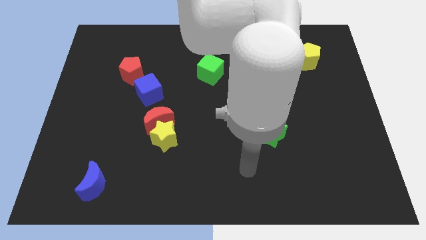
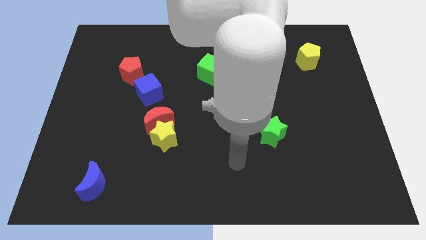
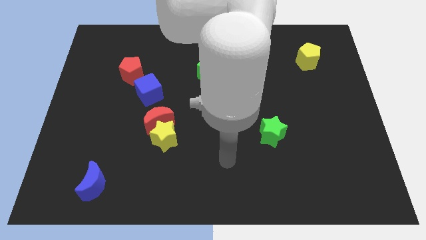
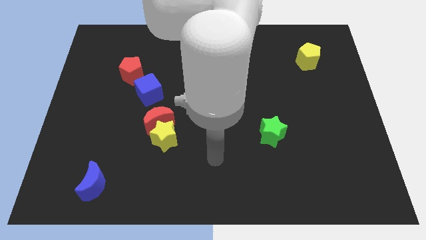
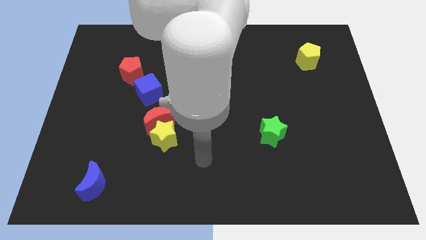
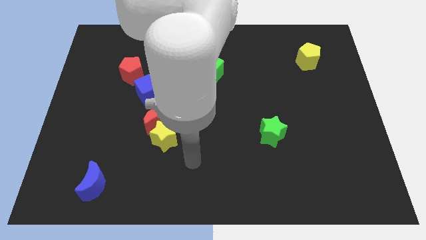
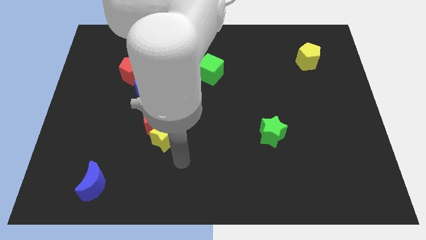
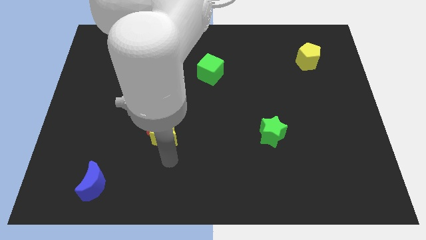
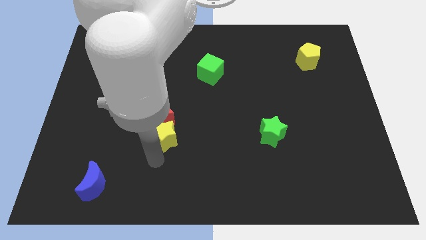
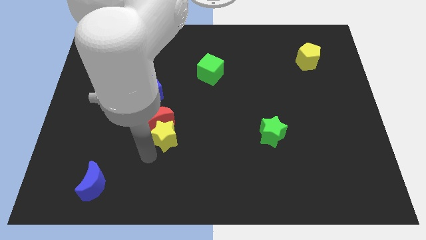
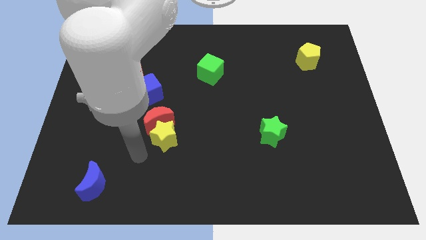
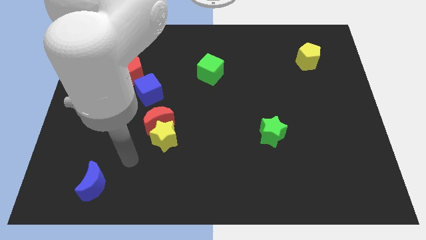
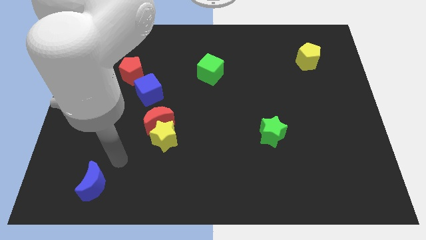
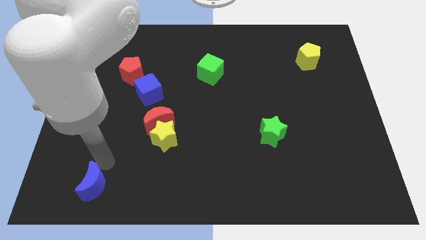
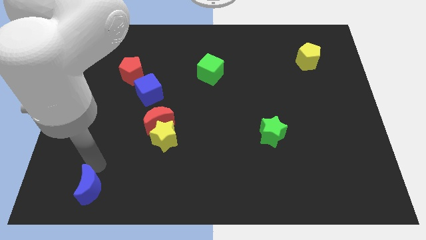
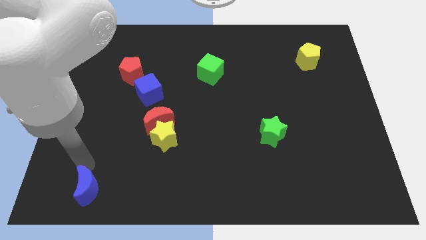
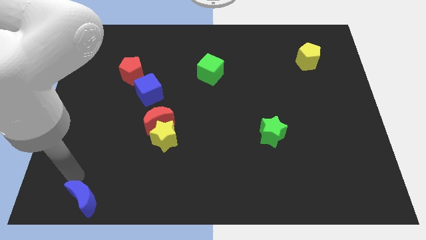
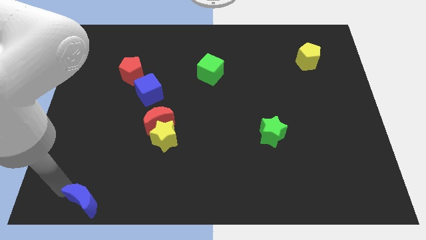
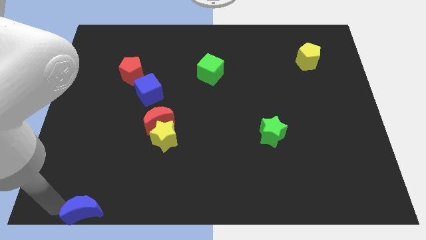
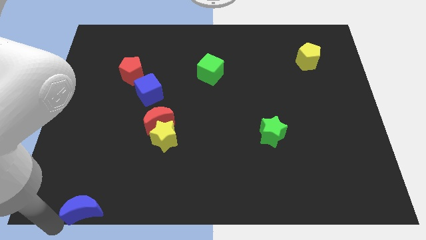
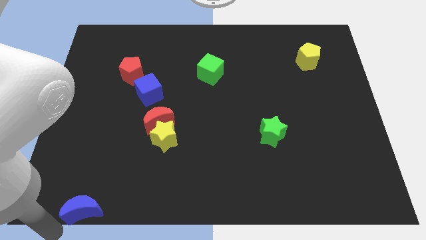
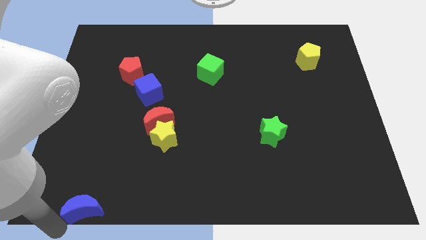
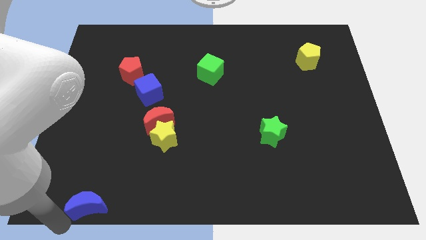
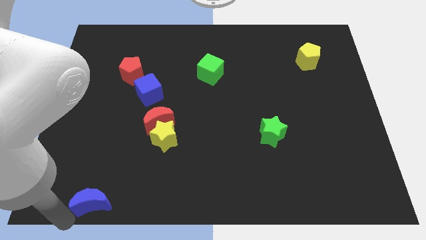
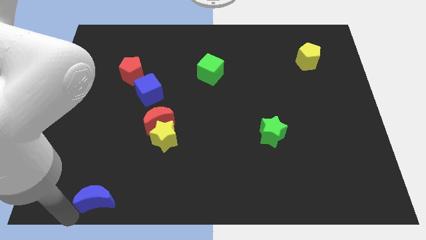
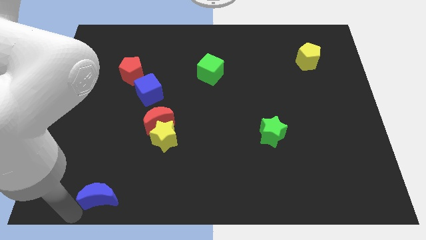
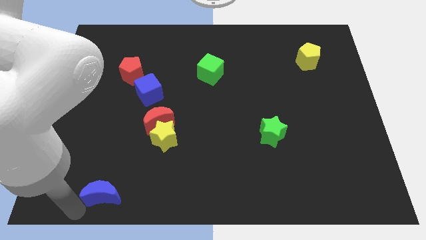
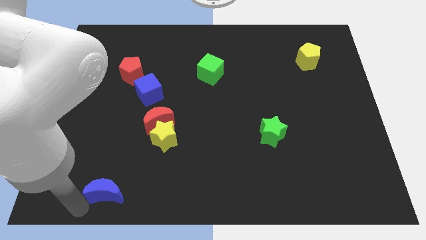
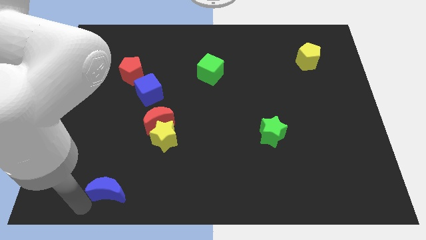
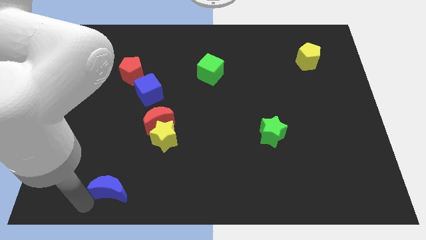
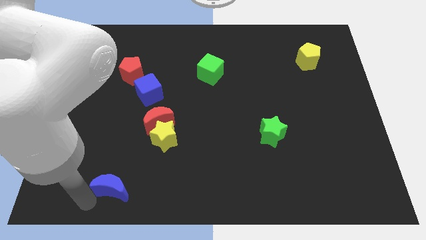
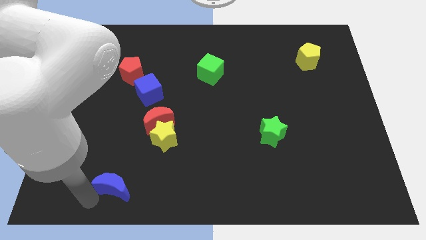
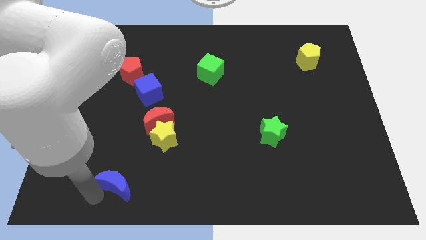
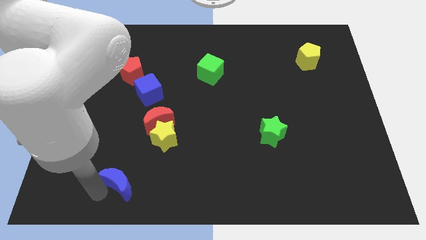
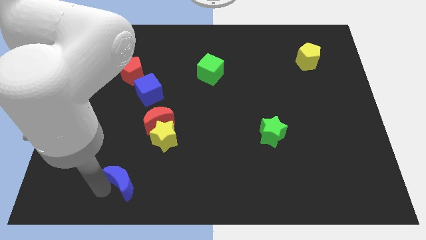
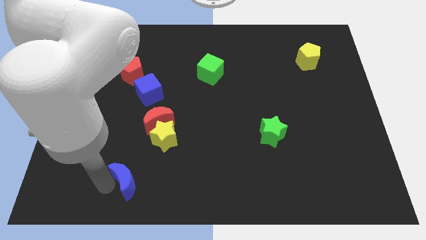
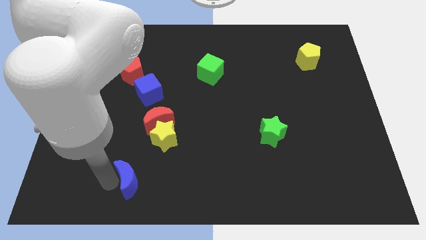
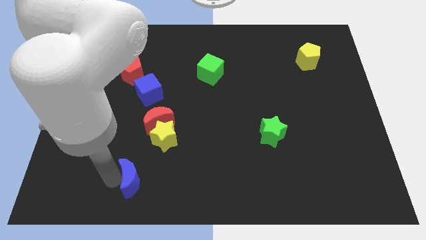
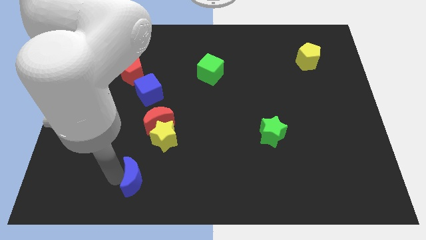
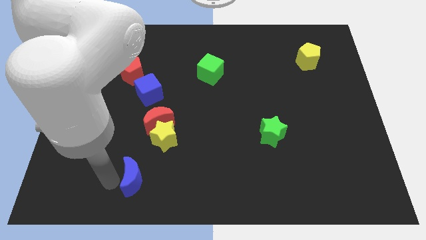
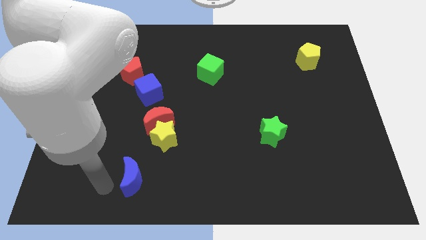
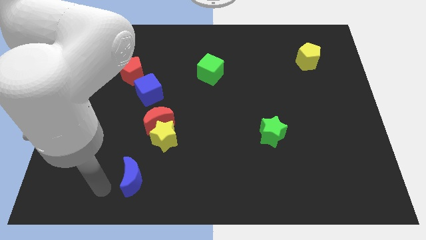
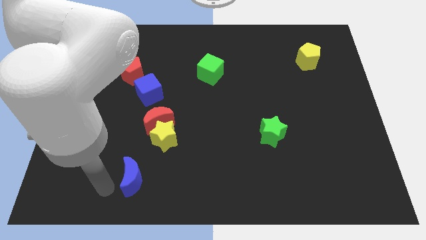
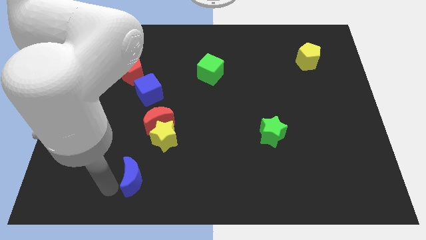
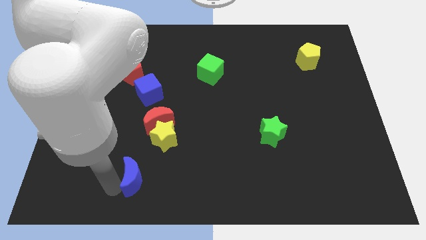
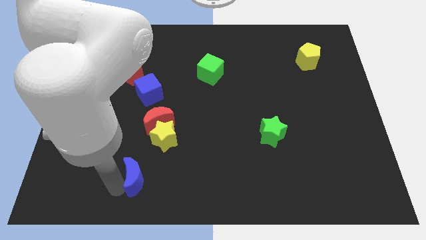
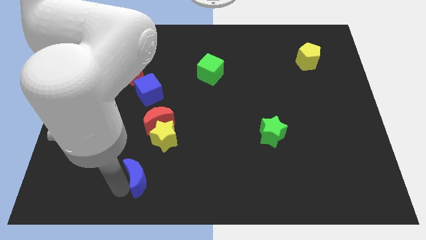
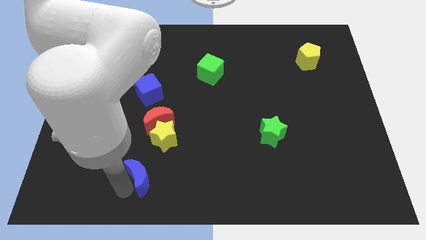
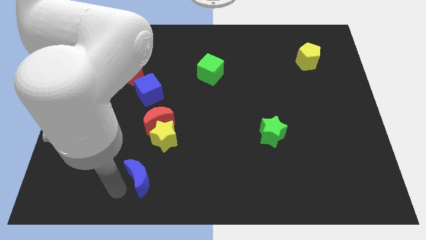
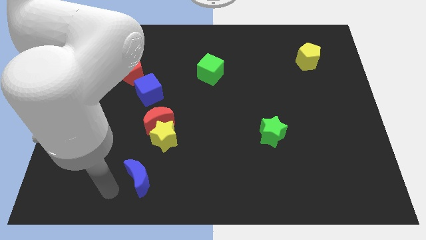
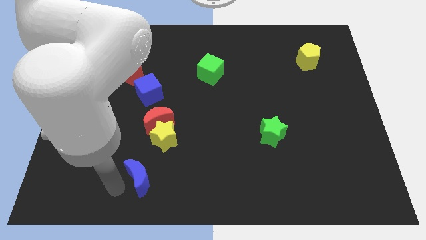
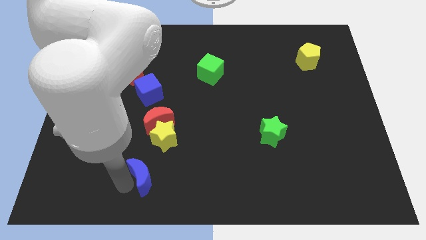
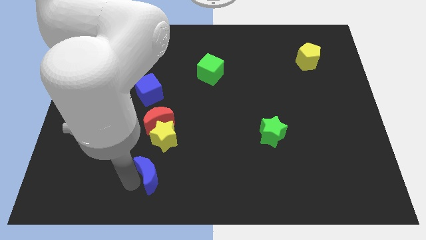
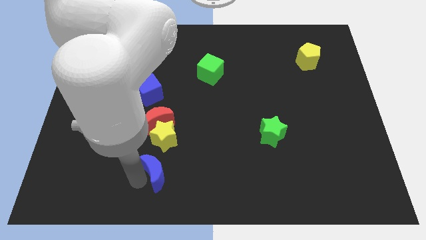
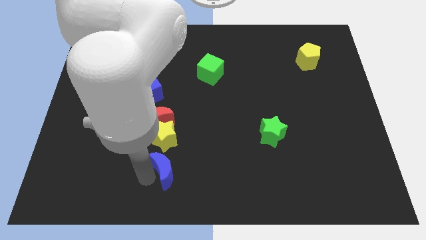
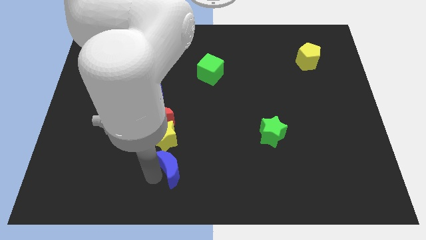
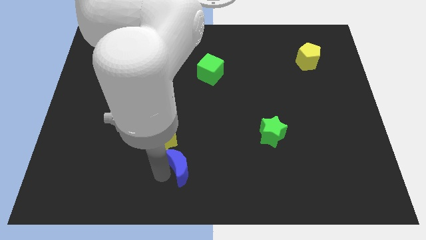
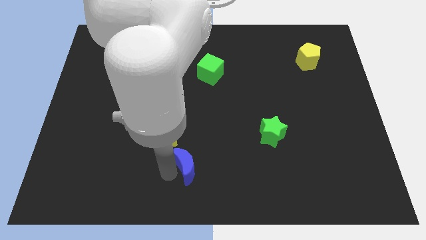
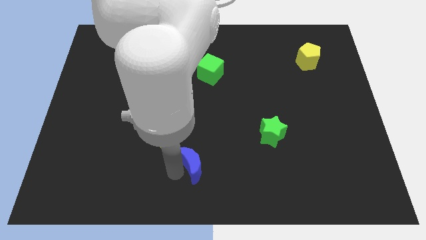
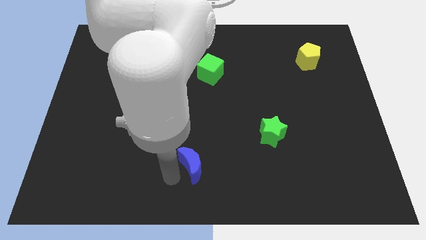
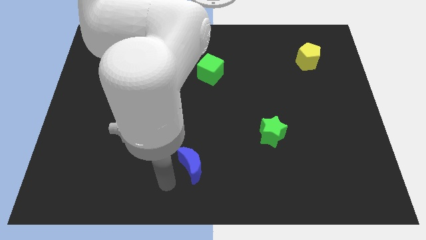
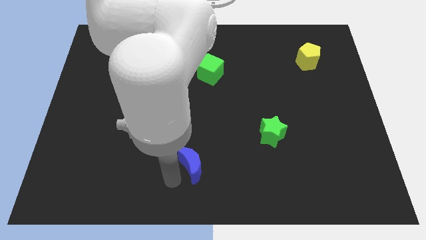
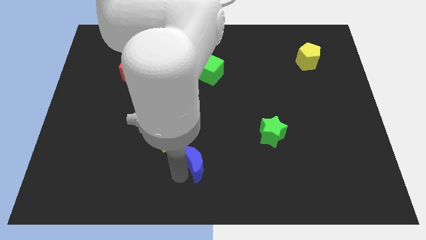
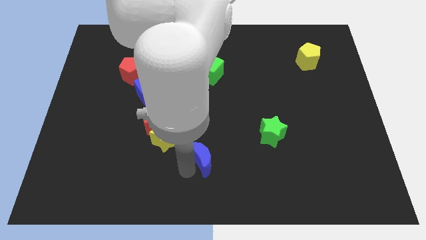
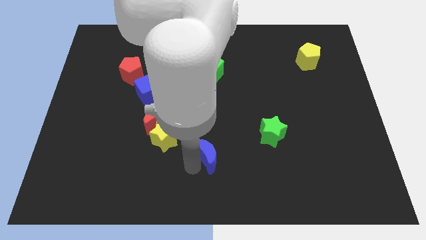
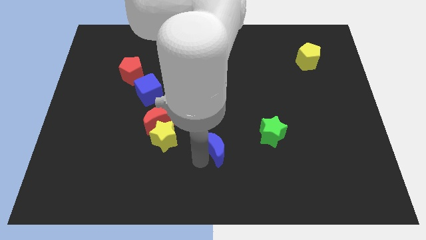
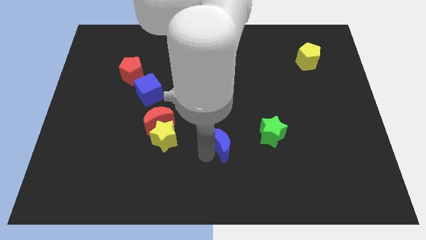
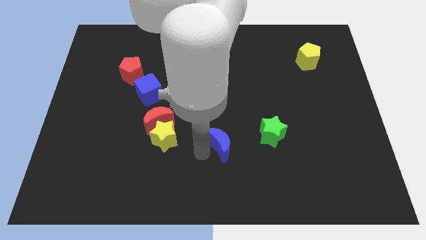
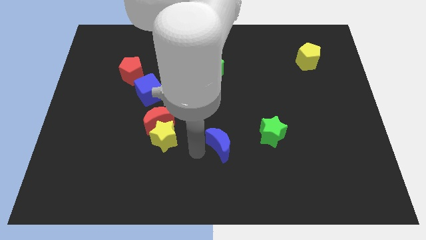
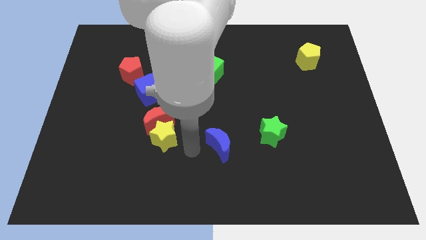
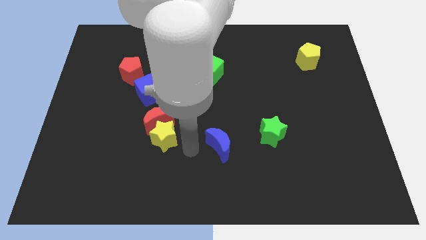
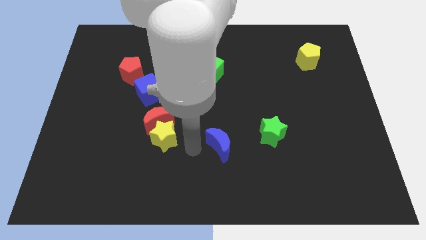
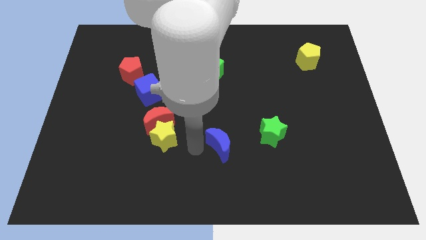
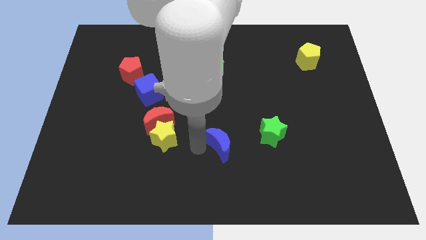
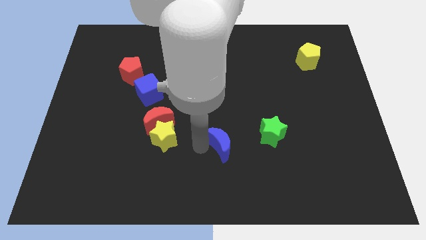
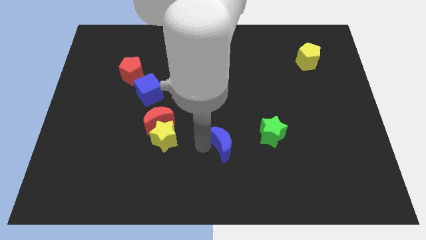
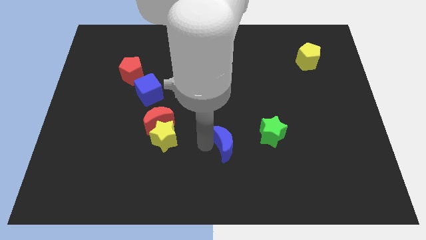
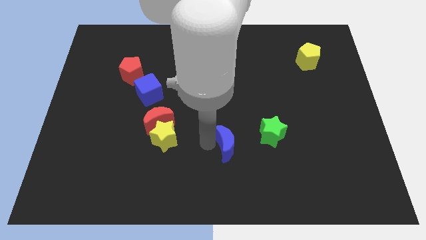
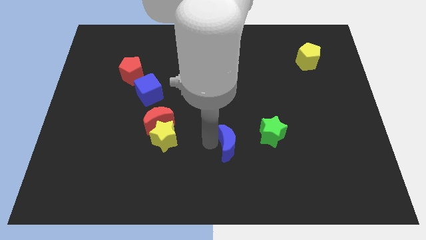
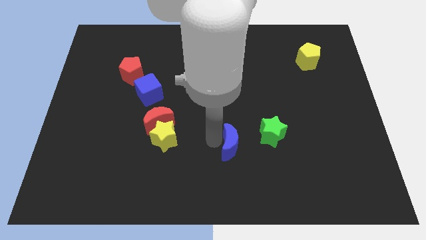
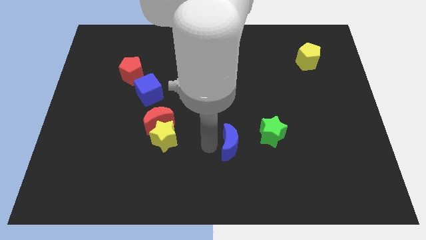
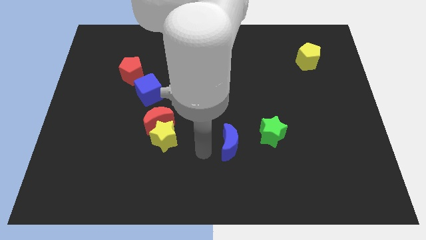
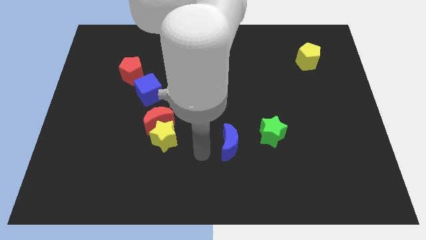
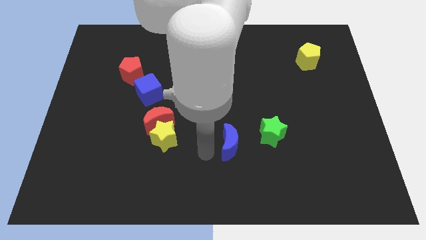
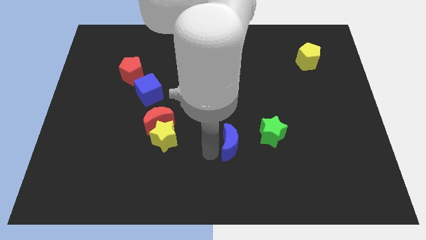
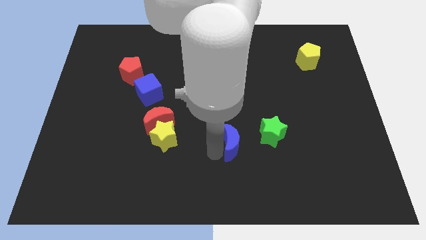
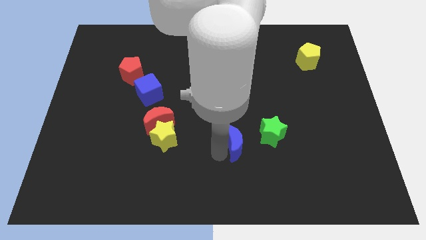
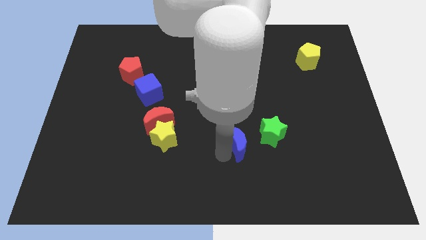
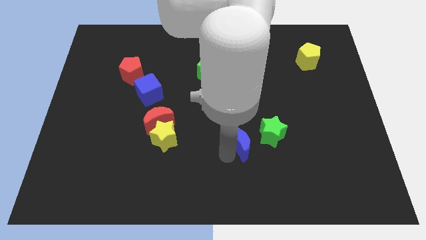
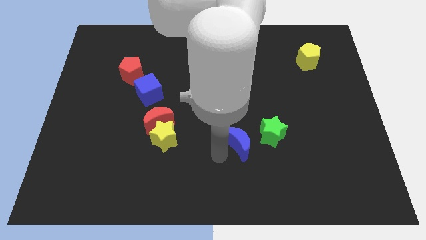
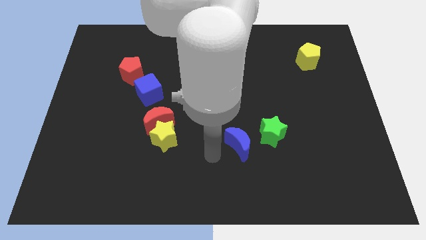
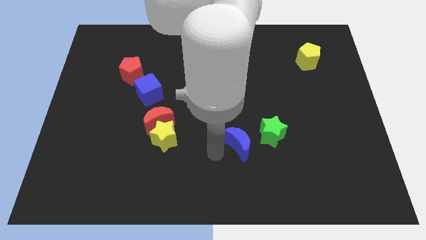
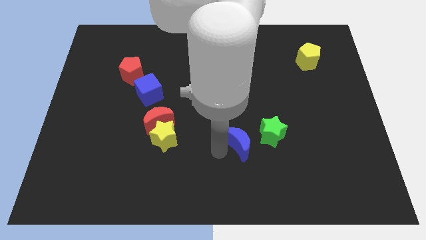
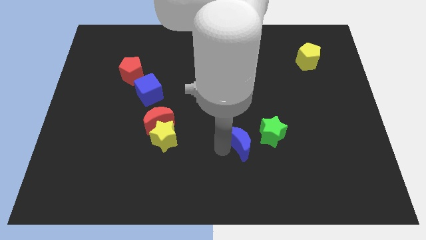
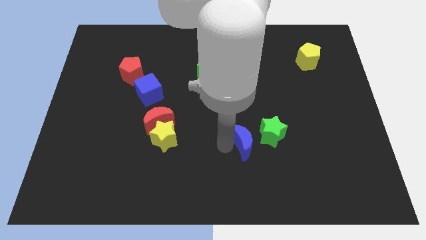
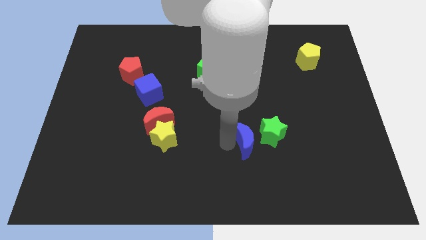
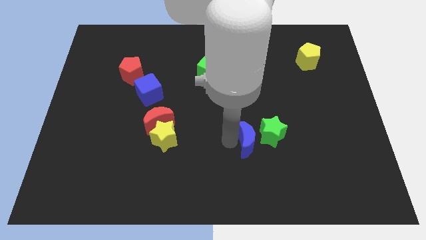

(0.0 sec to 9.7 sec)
slide the blue moon next to the green star
